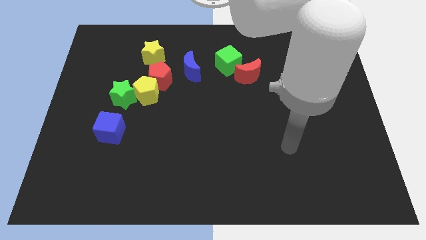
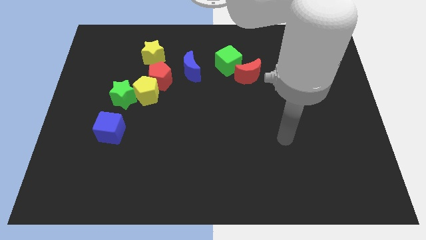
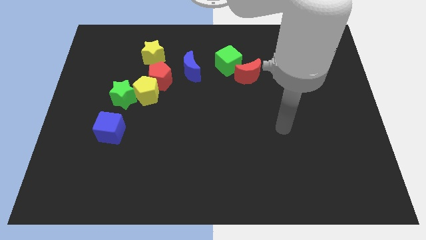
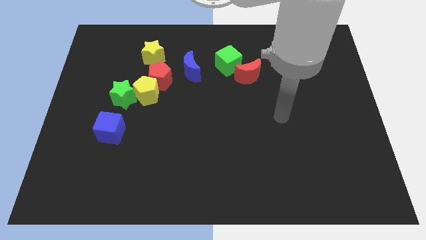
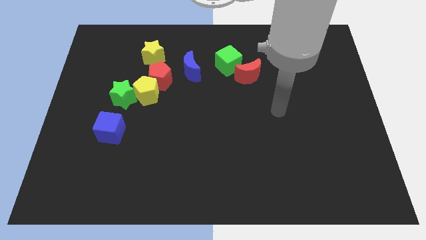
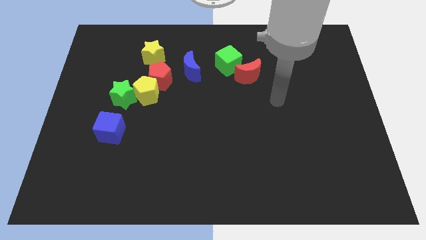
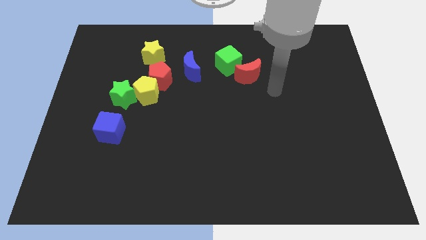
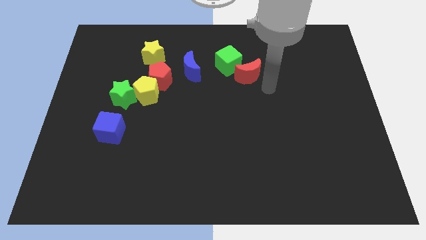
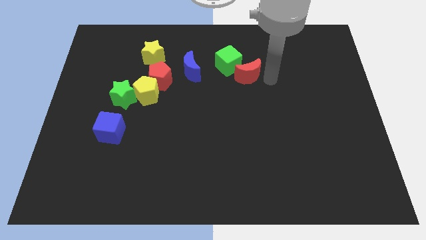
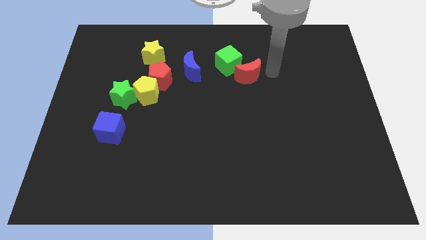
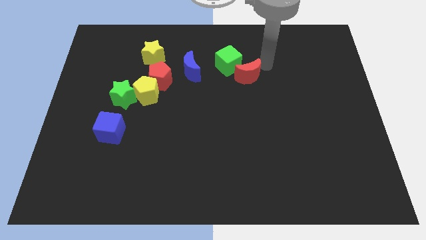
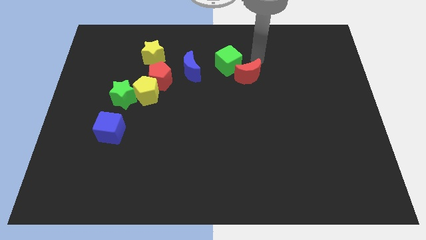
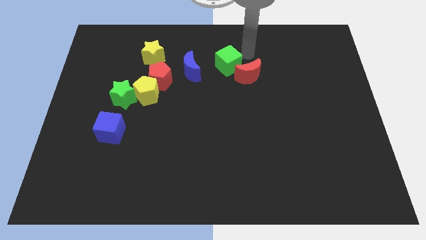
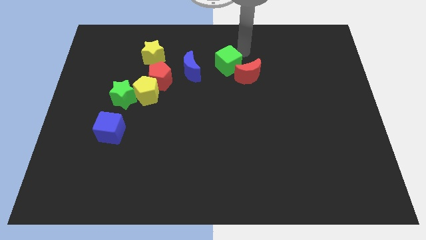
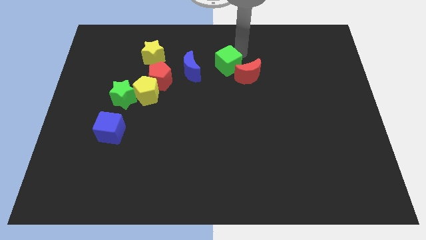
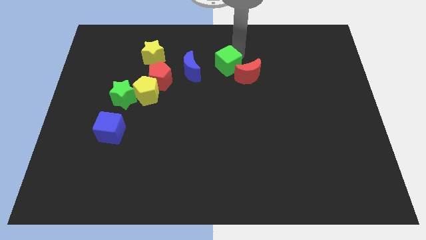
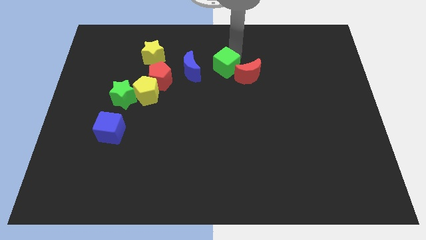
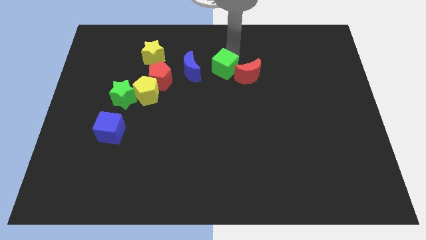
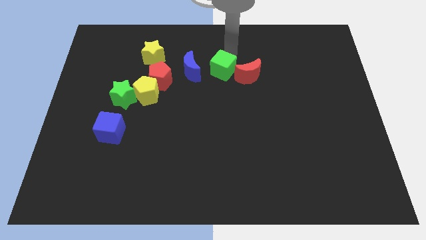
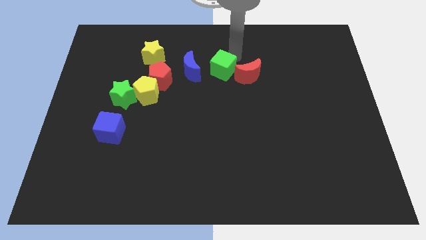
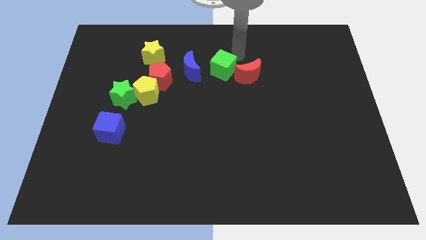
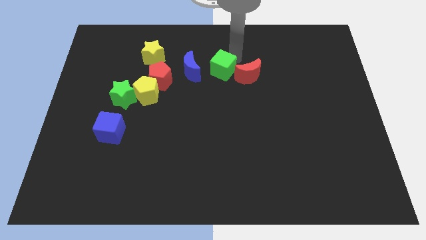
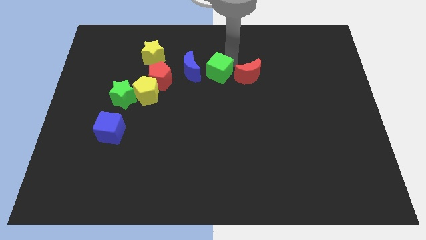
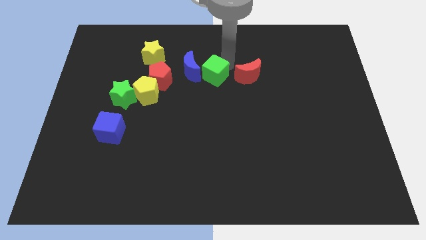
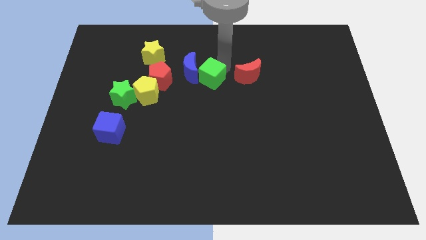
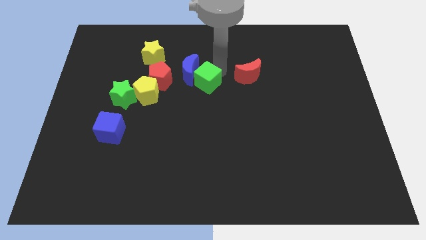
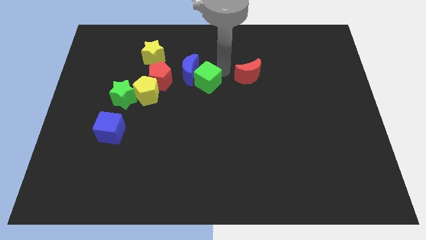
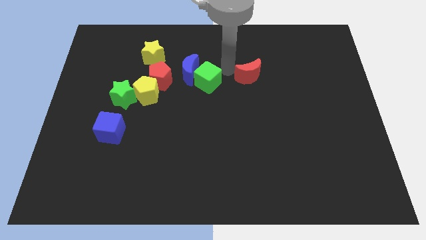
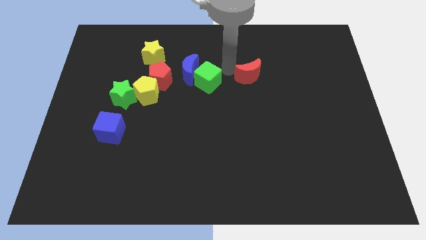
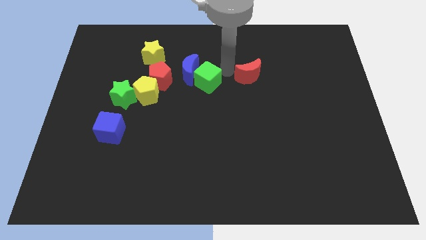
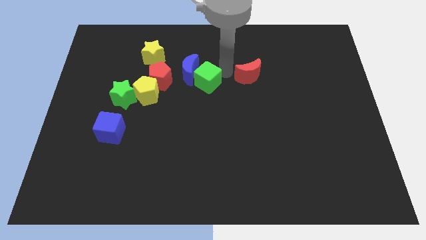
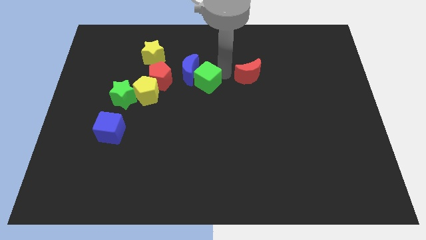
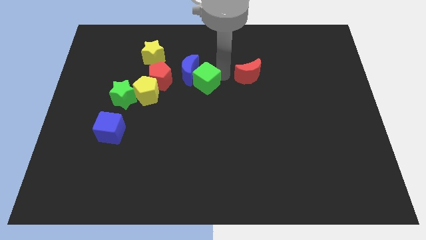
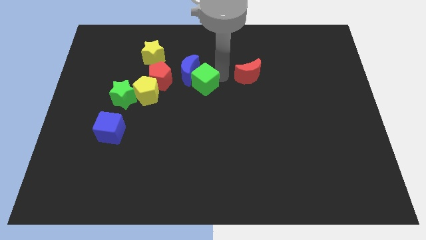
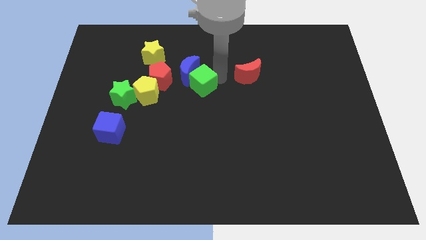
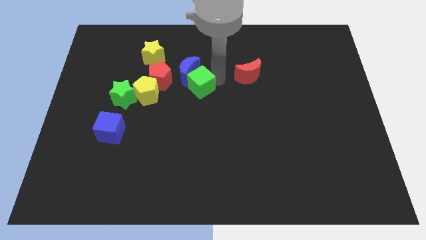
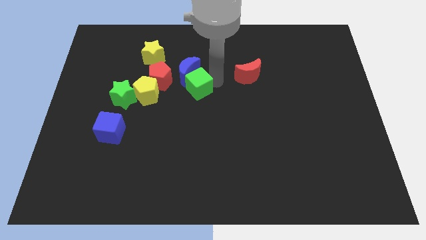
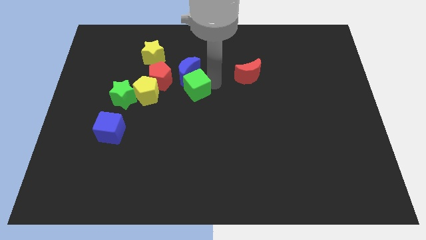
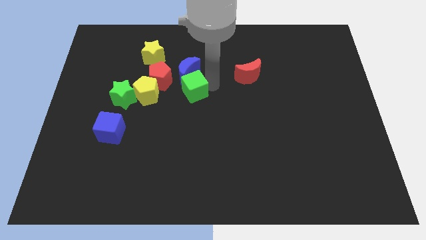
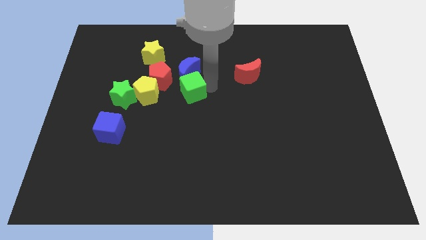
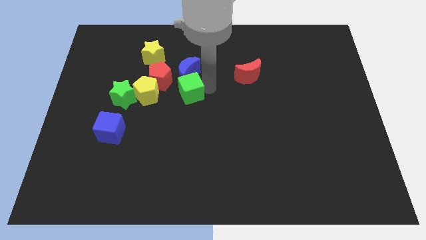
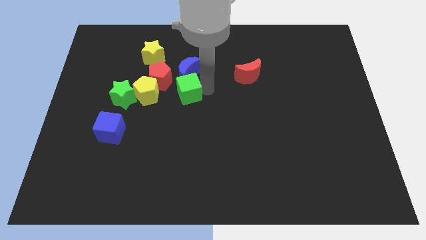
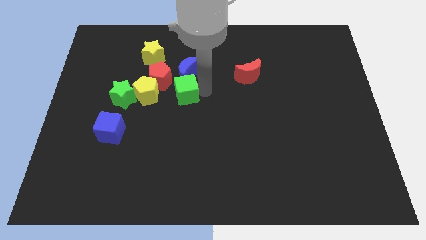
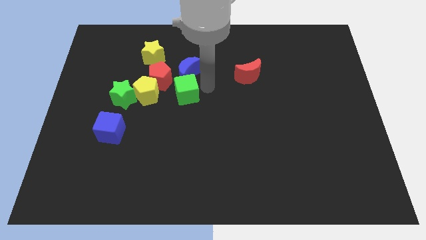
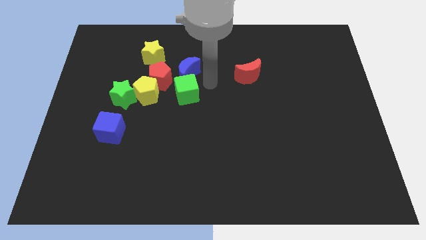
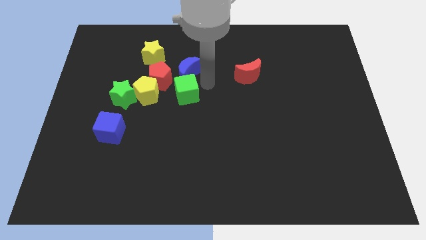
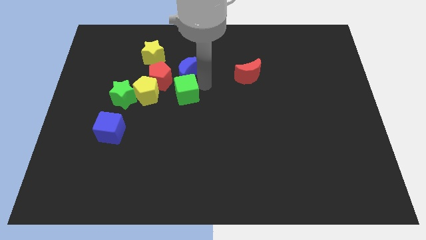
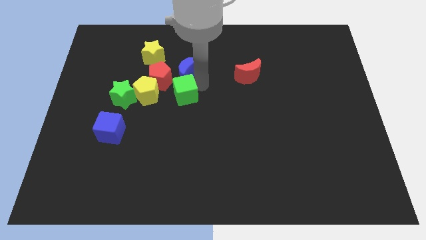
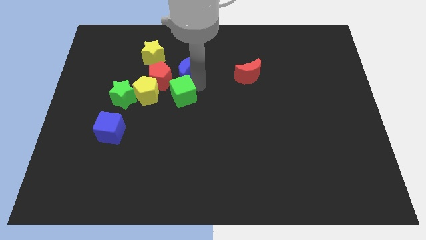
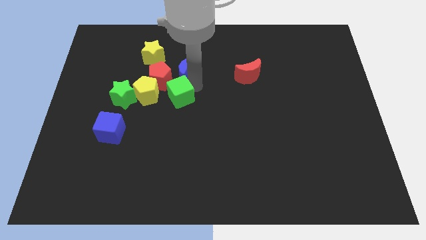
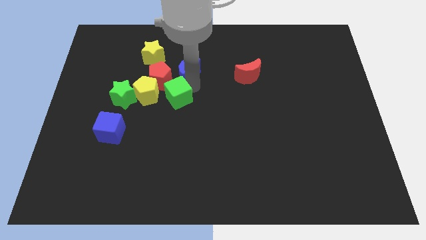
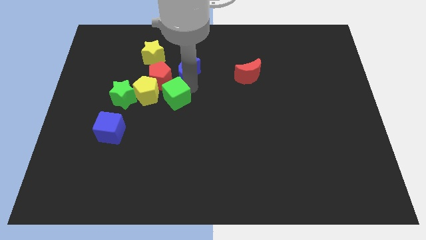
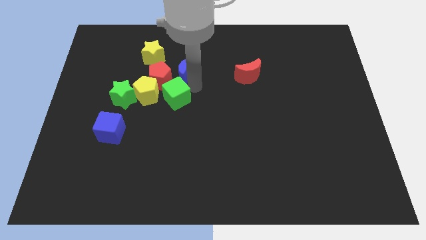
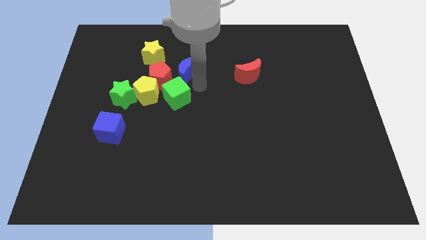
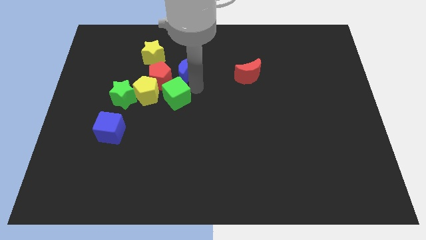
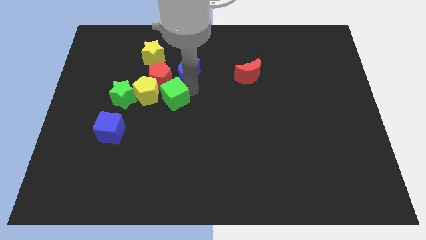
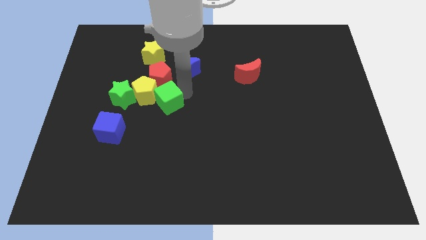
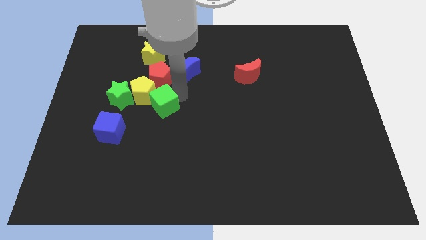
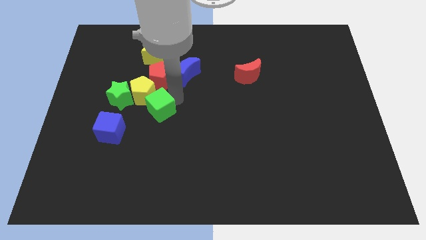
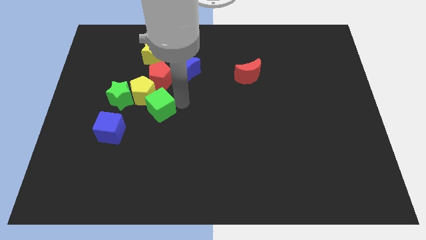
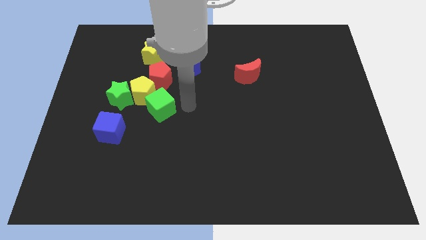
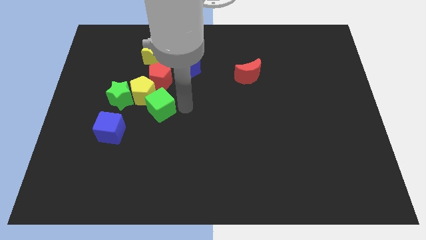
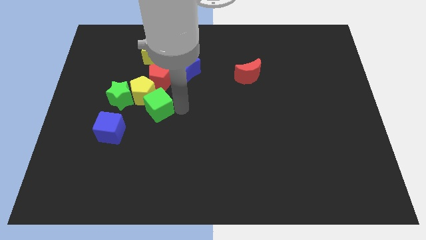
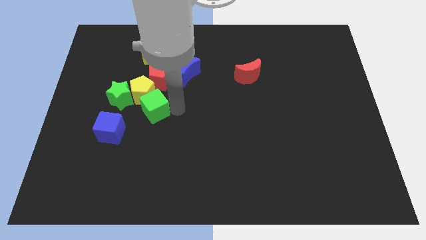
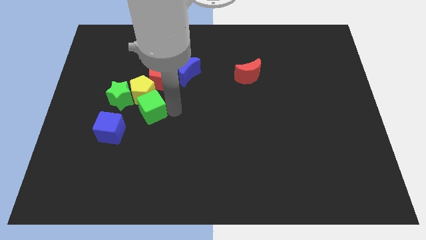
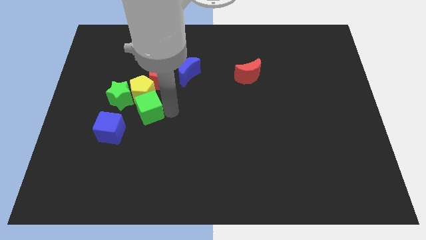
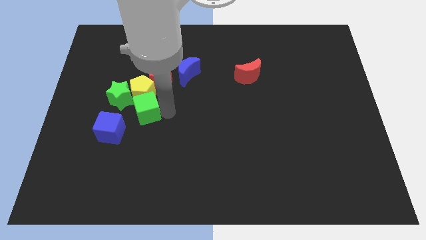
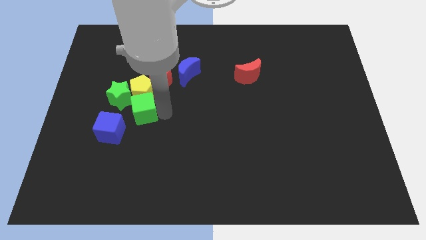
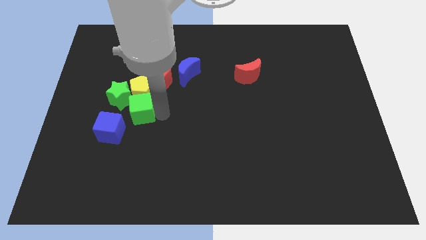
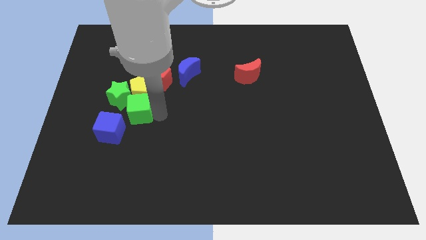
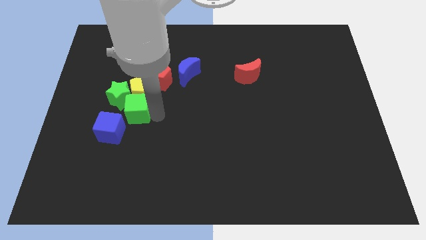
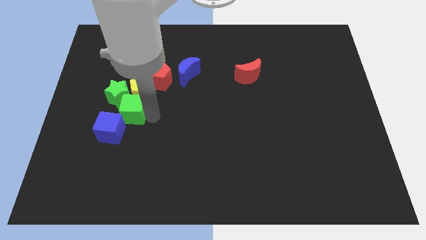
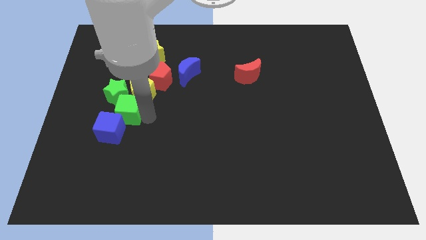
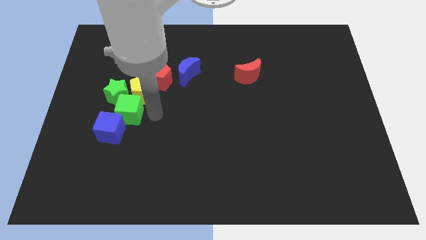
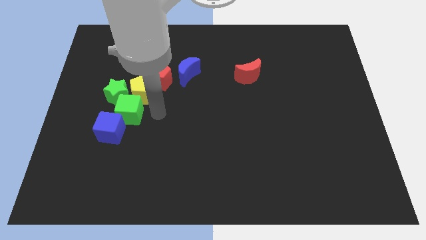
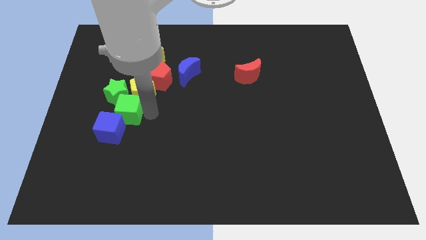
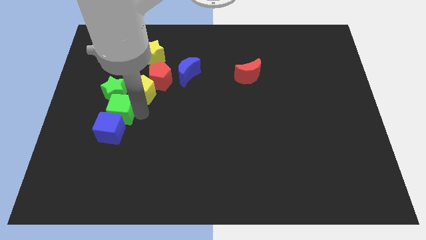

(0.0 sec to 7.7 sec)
push the green cube diagonally up and to the left of the blue cube
